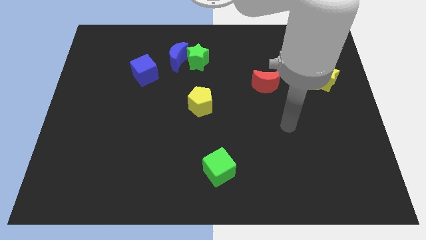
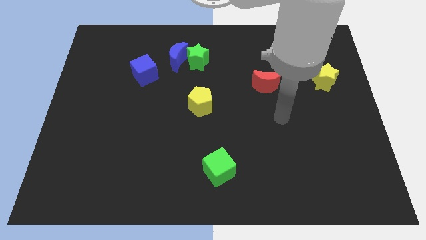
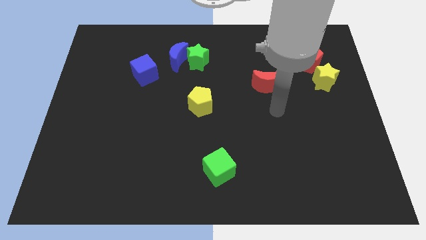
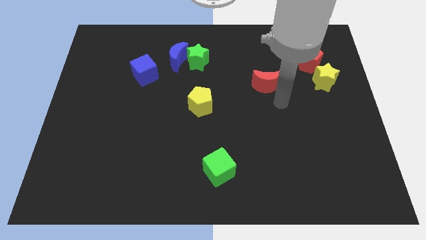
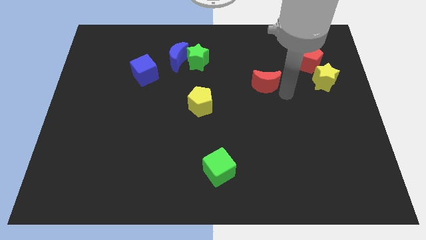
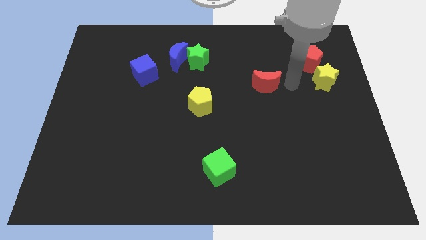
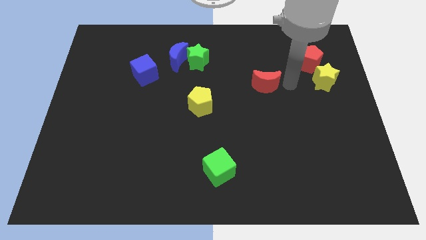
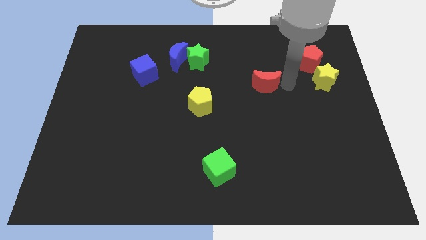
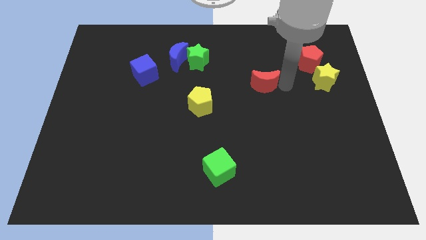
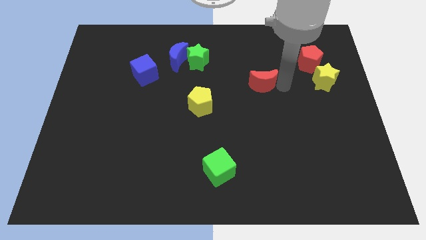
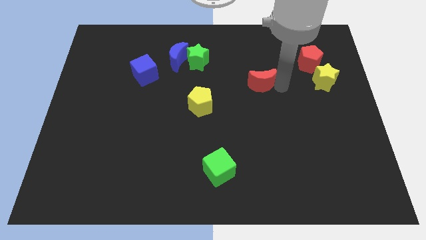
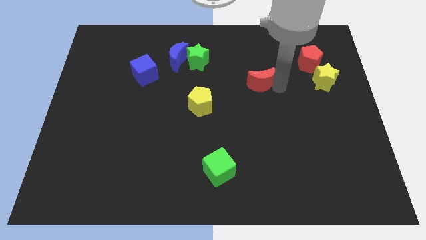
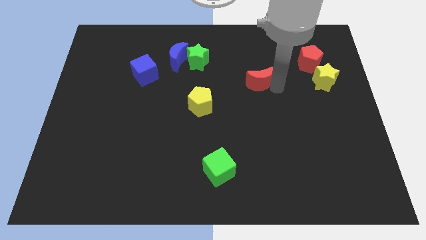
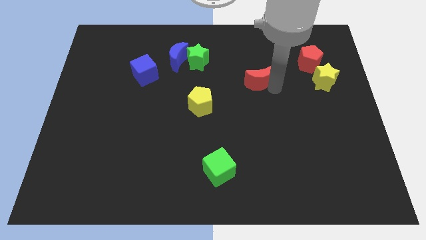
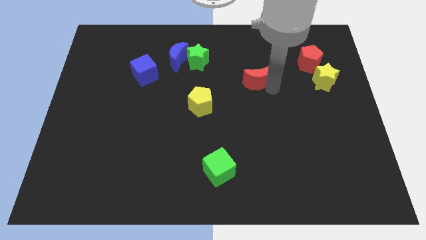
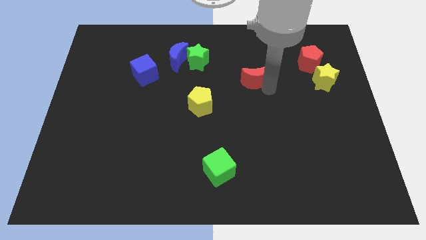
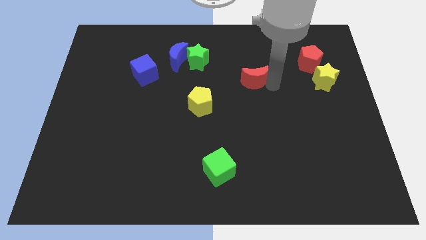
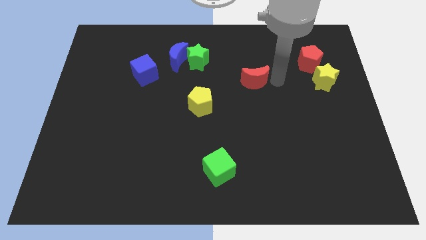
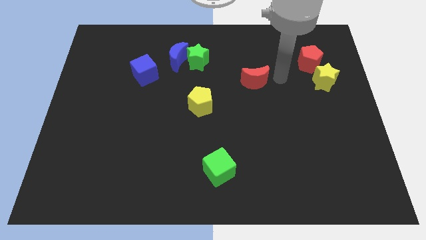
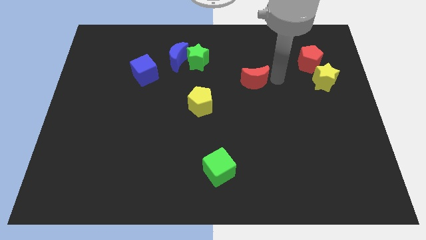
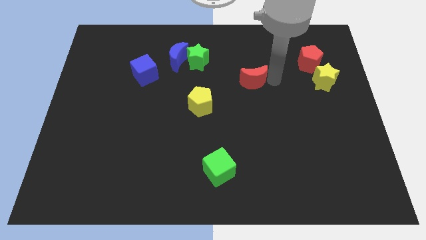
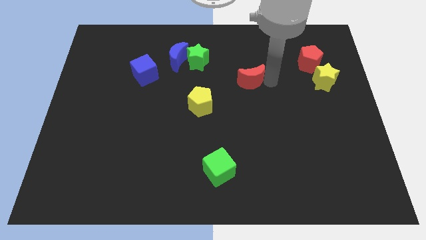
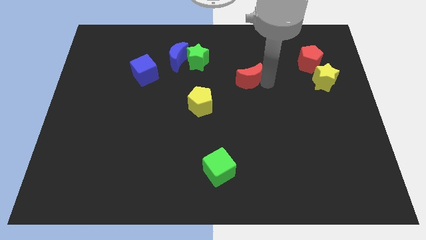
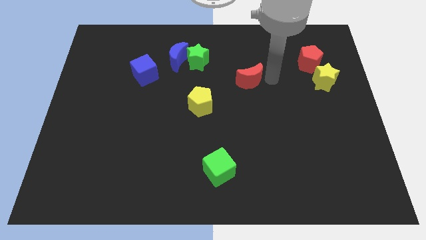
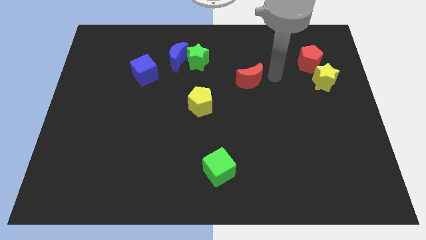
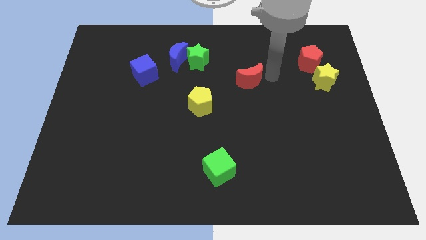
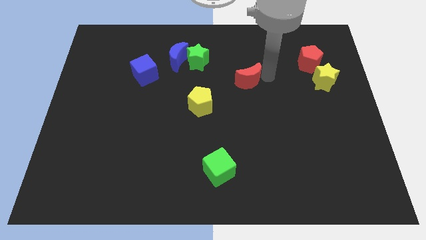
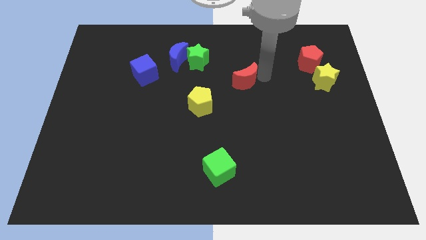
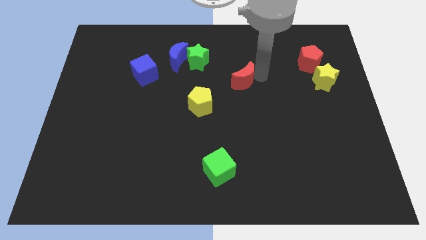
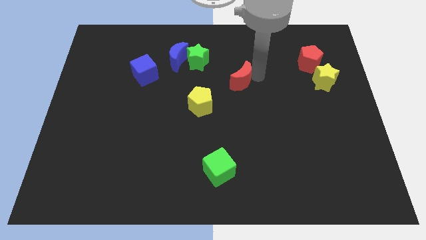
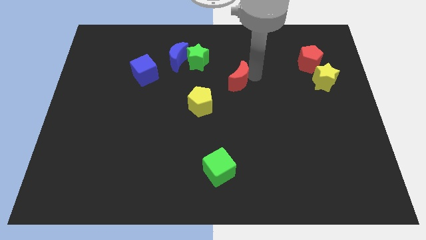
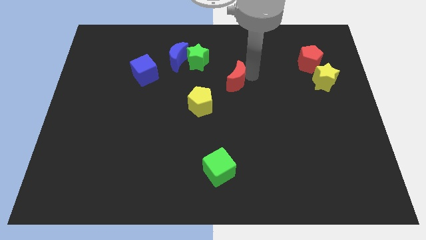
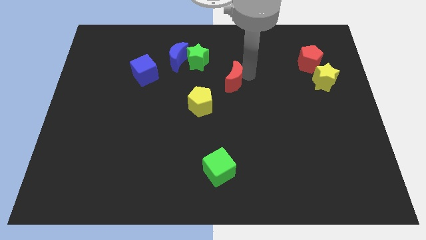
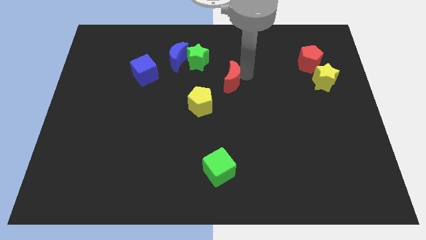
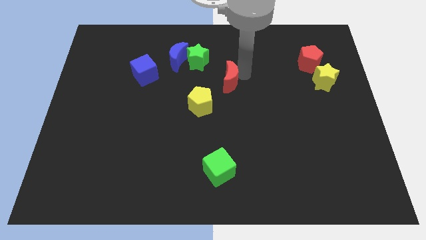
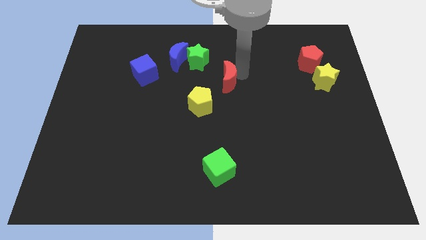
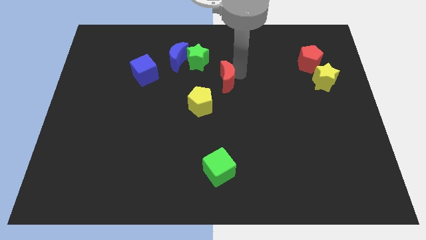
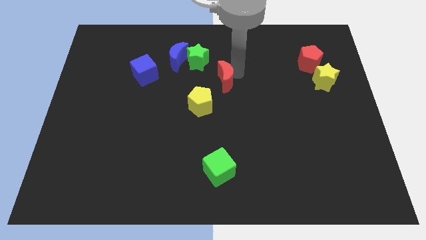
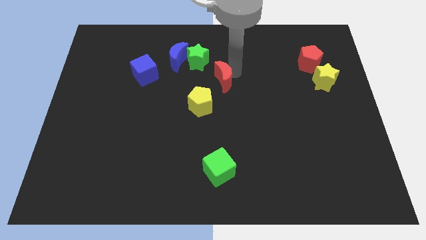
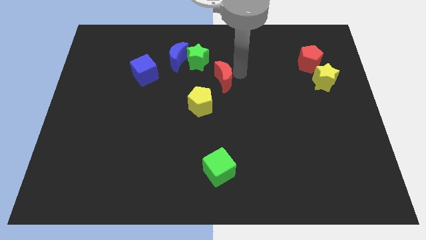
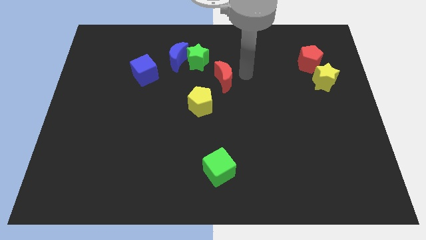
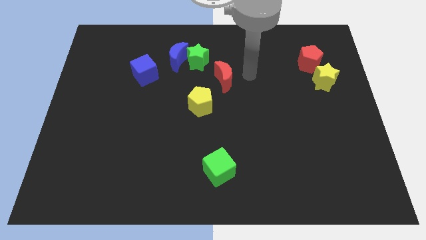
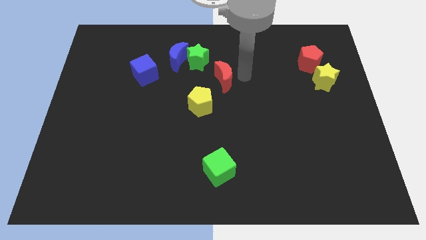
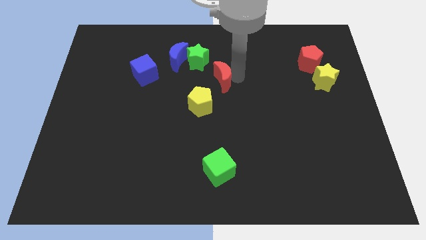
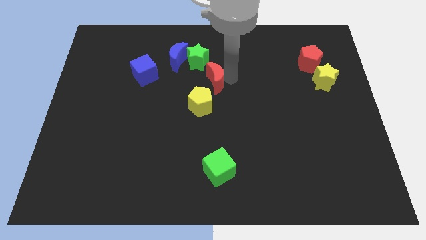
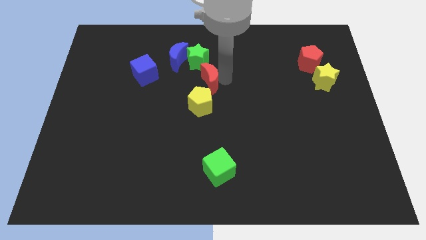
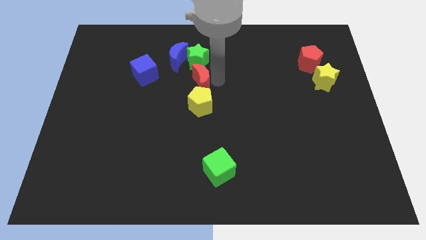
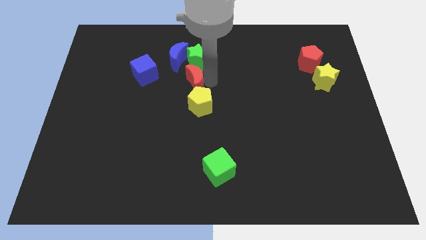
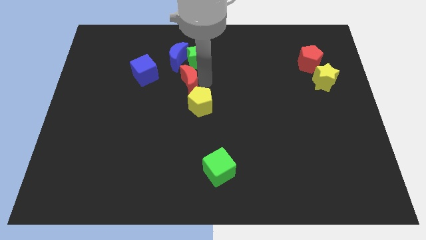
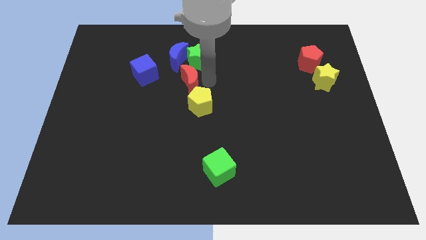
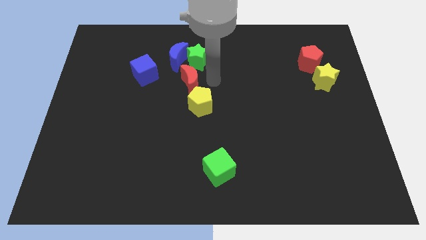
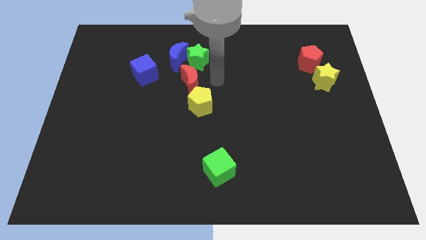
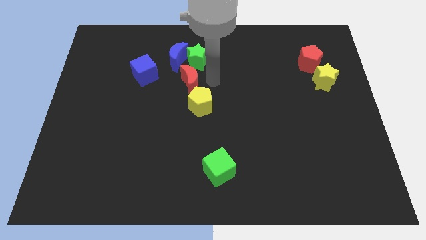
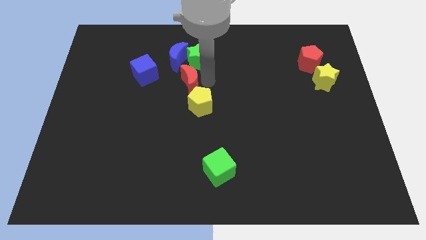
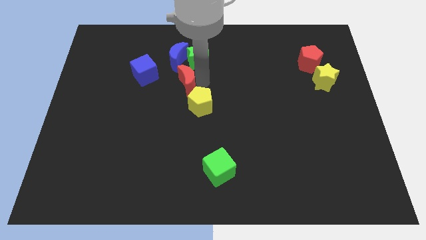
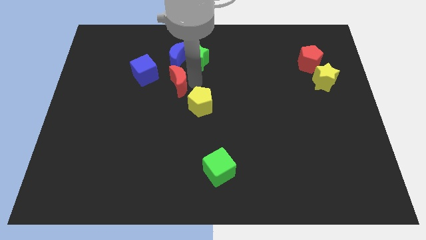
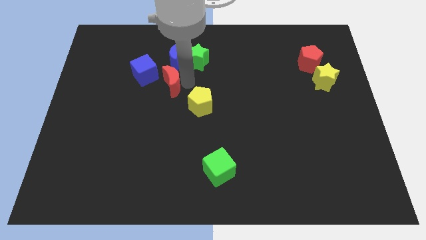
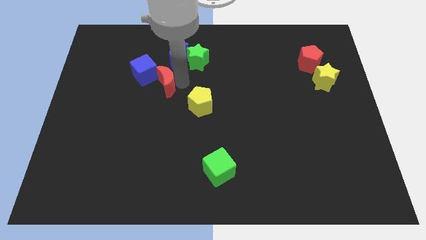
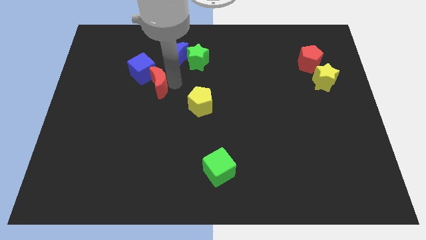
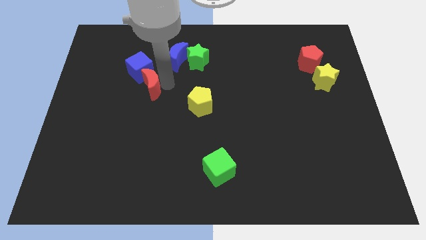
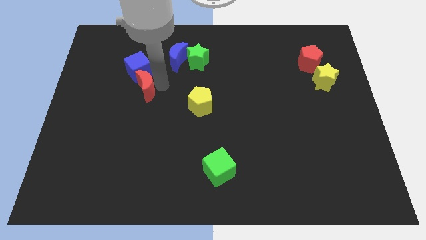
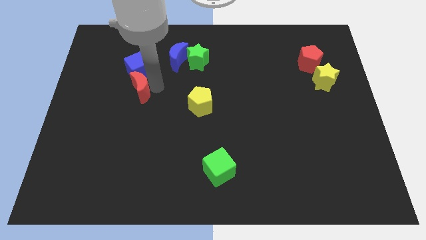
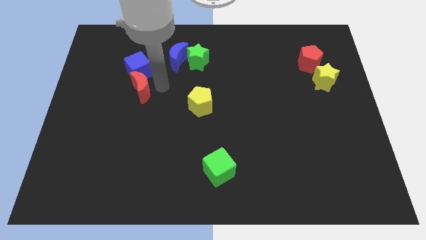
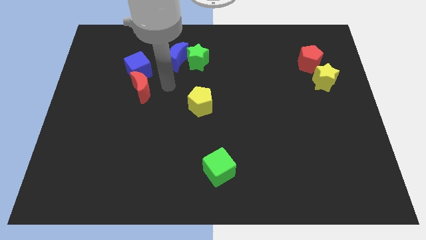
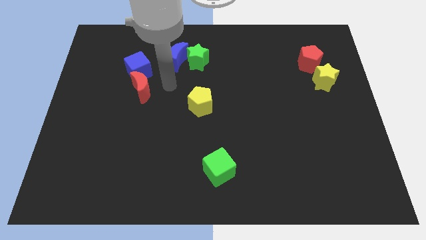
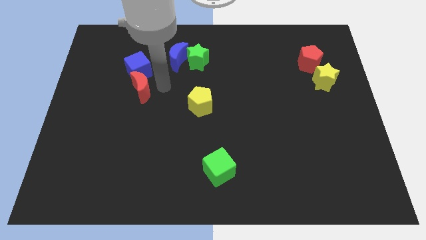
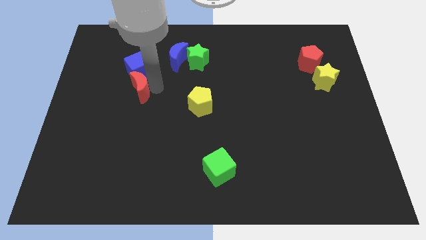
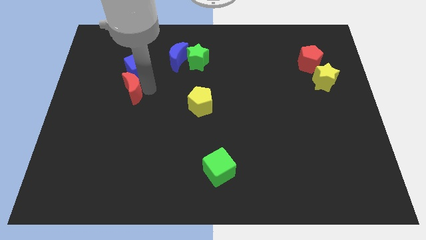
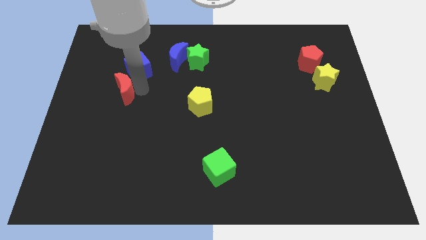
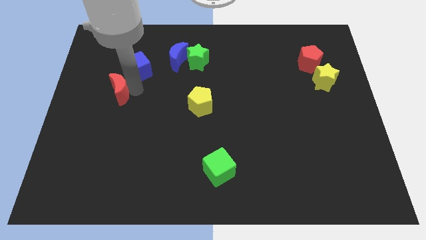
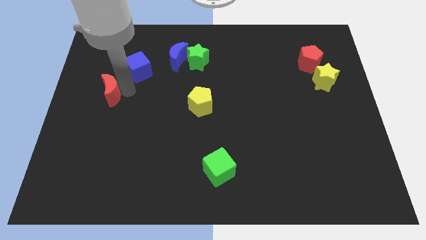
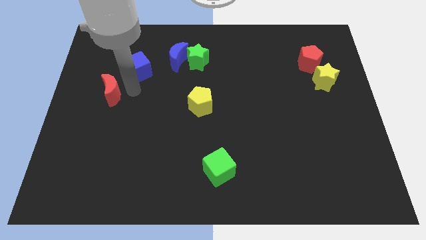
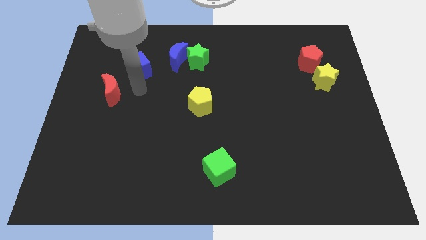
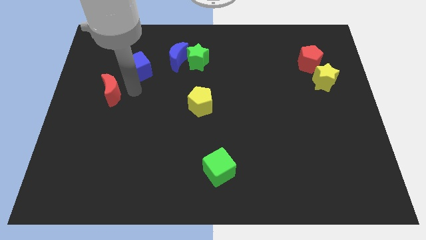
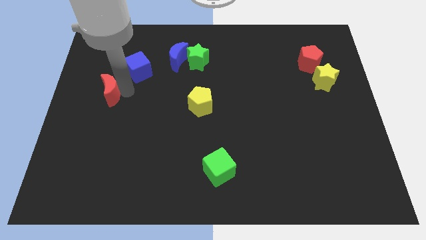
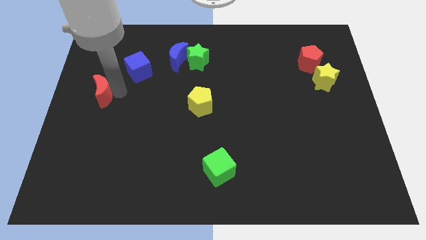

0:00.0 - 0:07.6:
slide the red moon to the left side
